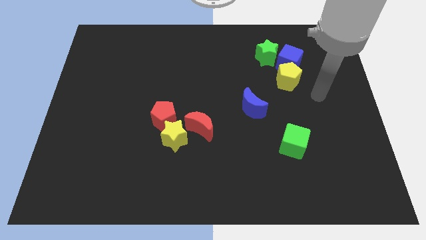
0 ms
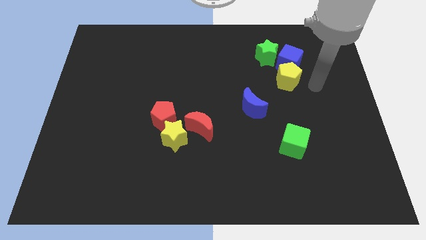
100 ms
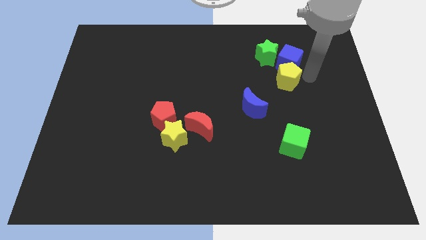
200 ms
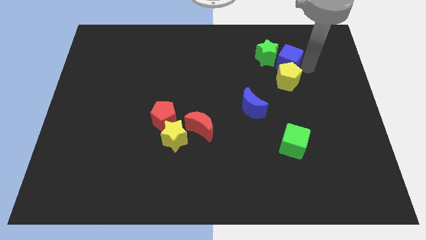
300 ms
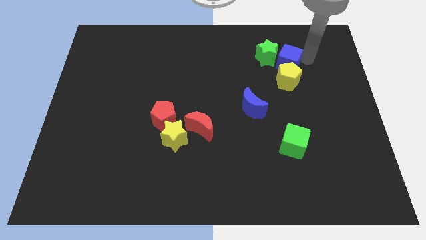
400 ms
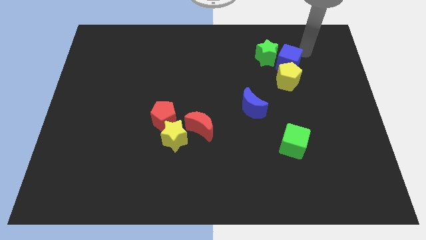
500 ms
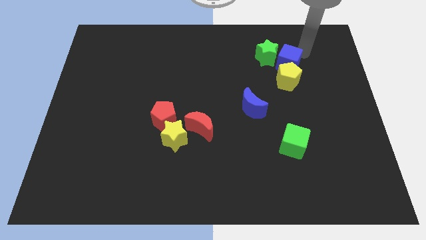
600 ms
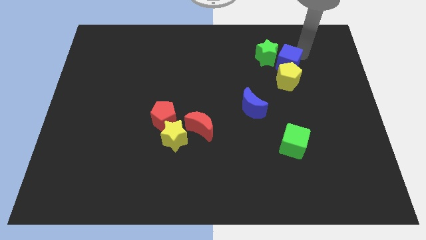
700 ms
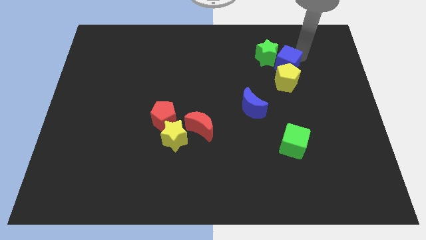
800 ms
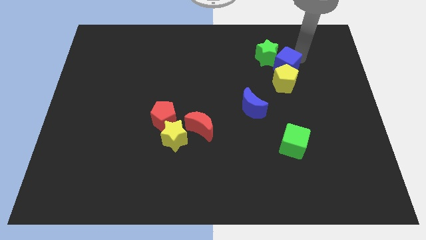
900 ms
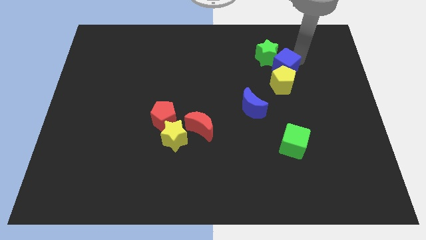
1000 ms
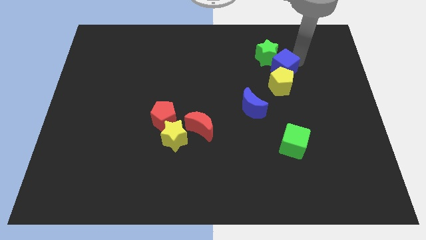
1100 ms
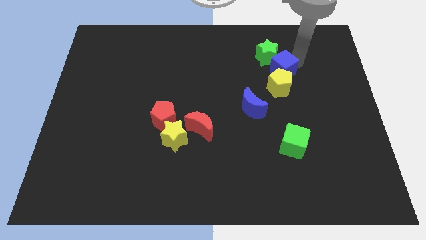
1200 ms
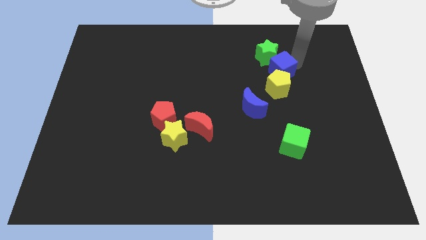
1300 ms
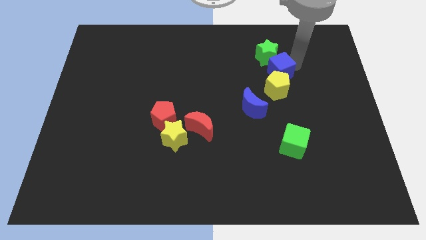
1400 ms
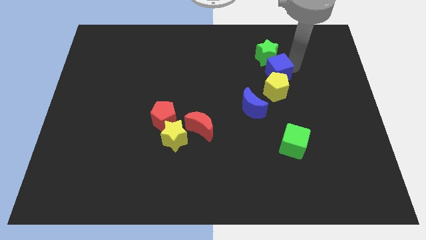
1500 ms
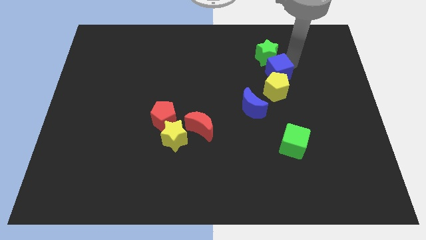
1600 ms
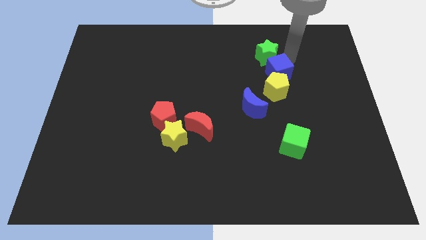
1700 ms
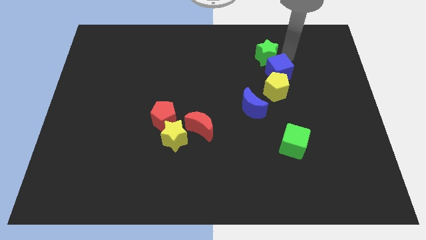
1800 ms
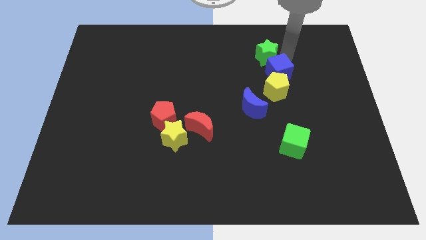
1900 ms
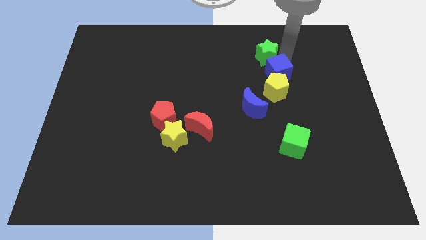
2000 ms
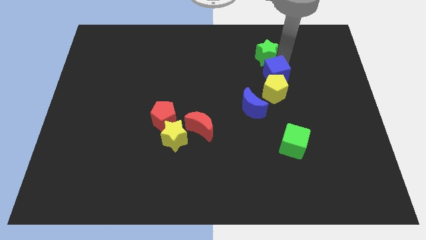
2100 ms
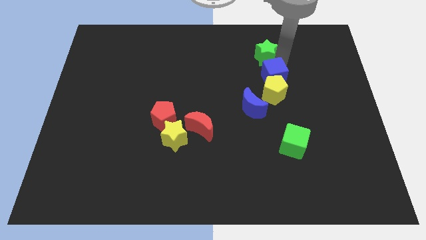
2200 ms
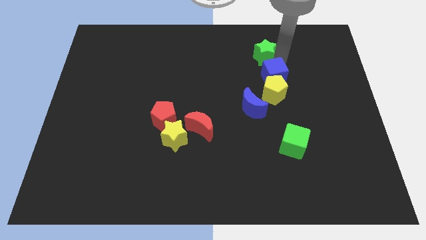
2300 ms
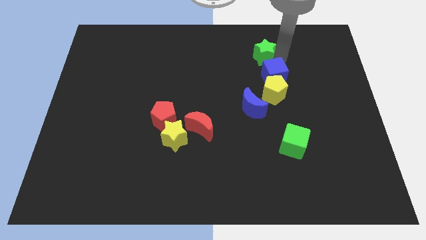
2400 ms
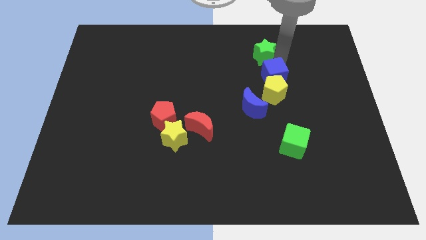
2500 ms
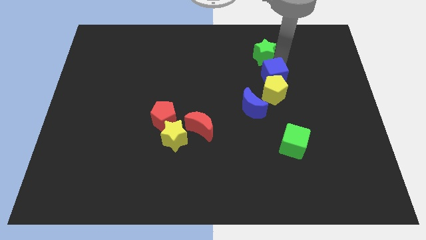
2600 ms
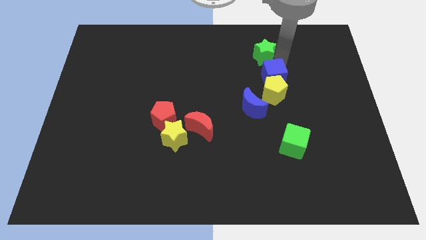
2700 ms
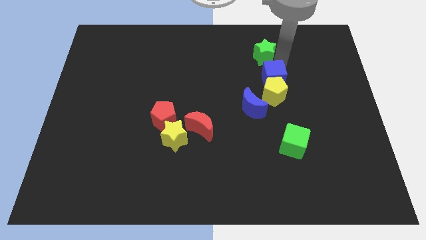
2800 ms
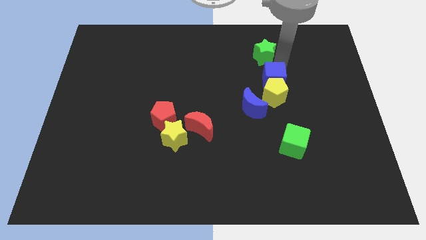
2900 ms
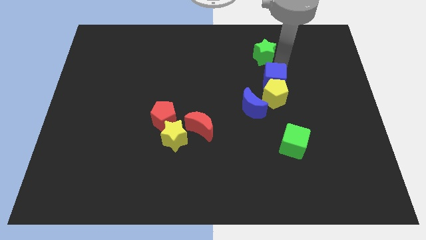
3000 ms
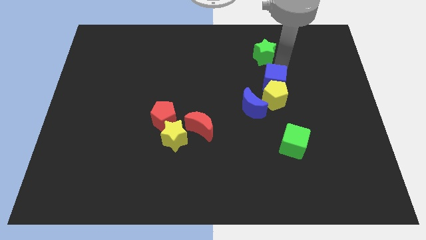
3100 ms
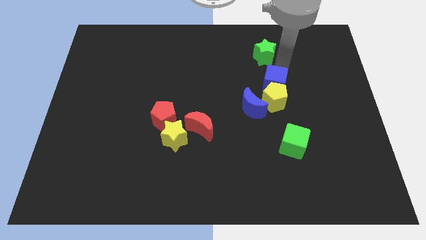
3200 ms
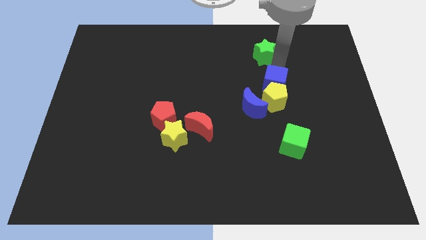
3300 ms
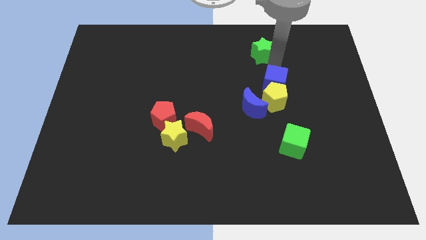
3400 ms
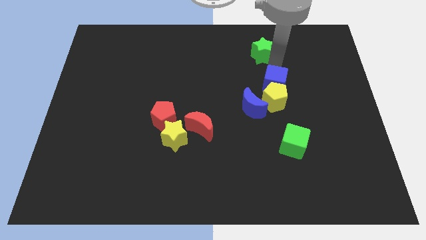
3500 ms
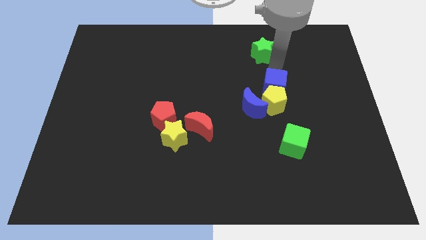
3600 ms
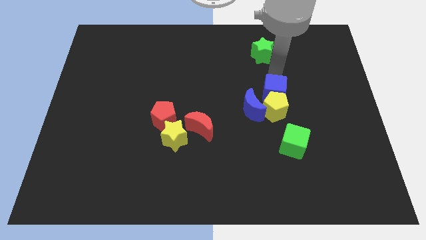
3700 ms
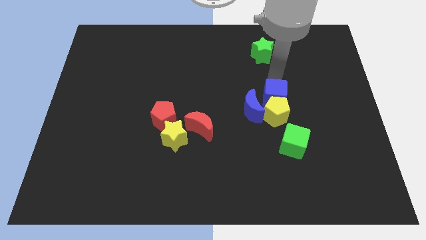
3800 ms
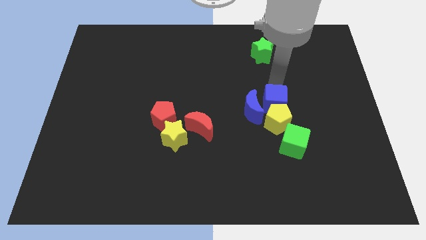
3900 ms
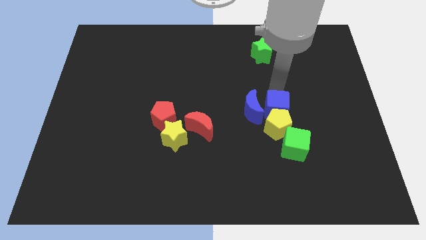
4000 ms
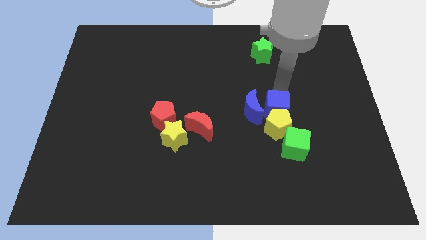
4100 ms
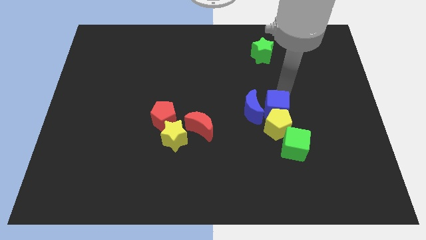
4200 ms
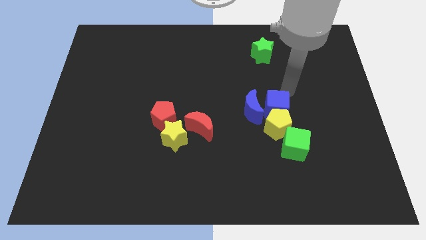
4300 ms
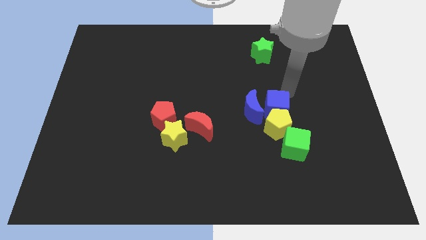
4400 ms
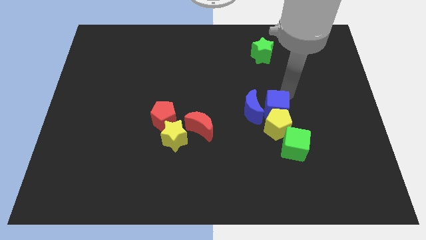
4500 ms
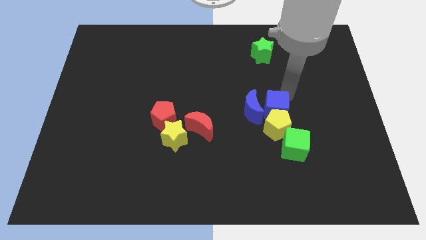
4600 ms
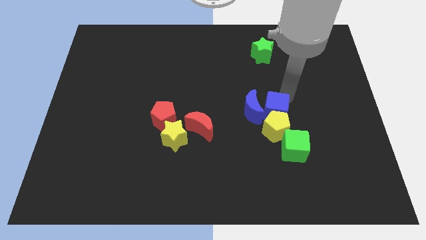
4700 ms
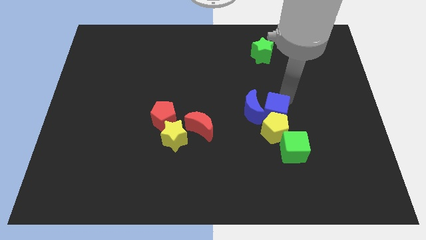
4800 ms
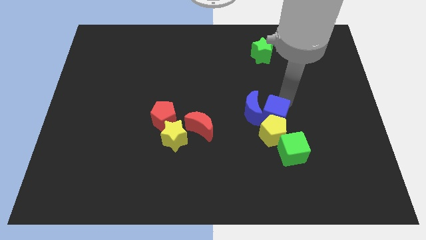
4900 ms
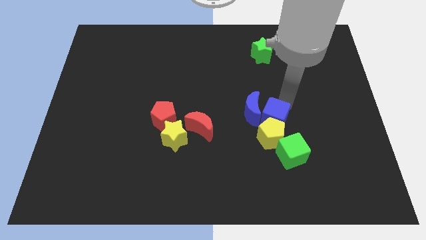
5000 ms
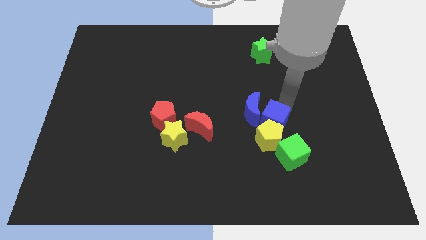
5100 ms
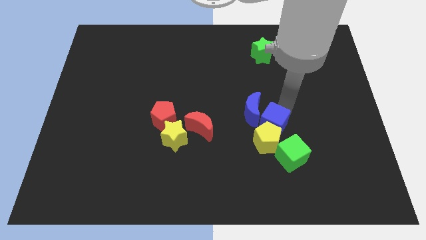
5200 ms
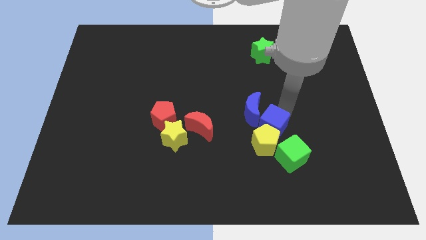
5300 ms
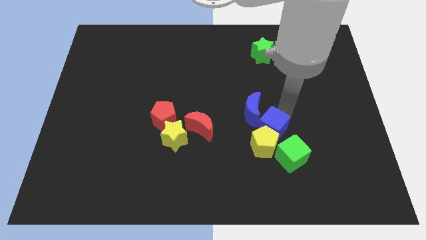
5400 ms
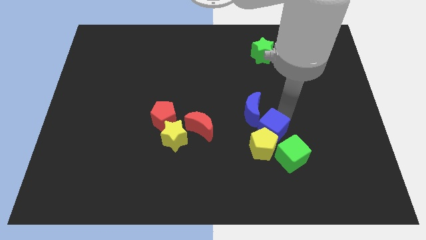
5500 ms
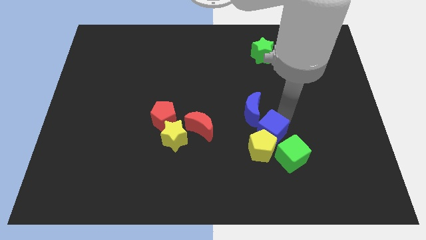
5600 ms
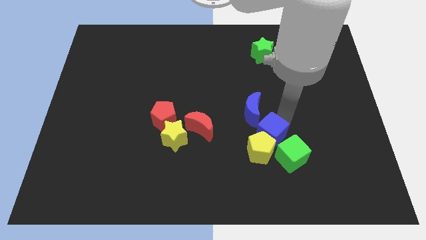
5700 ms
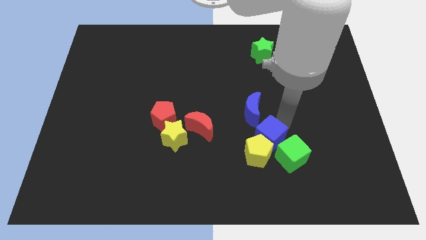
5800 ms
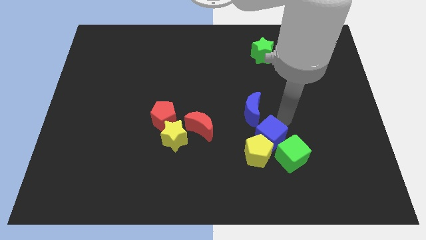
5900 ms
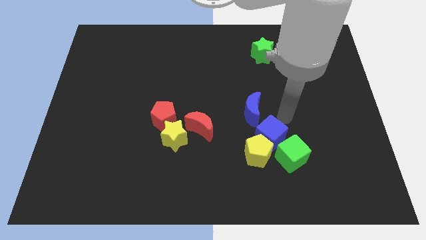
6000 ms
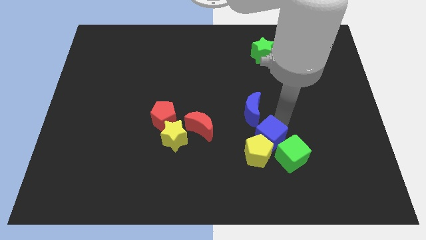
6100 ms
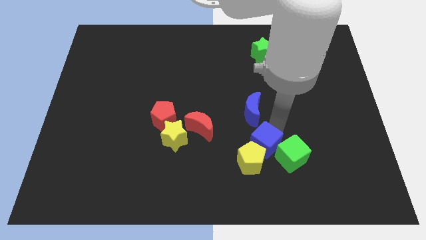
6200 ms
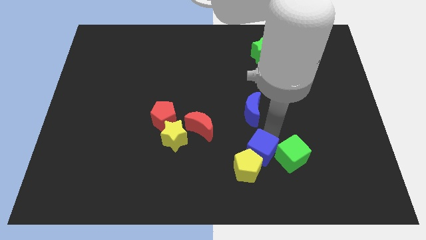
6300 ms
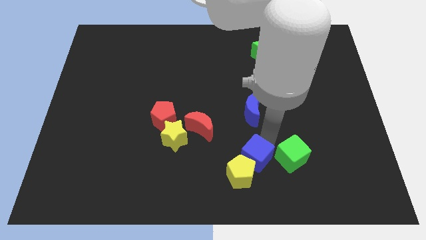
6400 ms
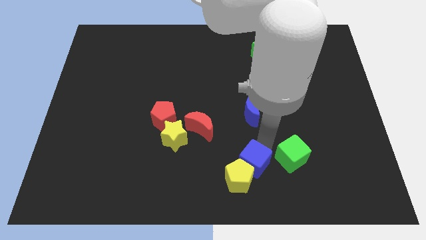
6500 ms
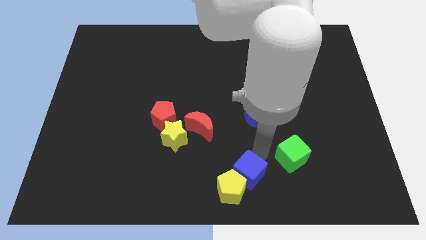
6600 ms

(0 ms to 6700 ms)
move the blue cube to the bottom
